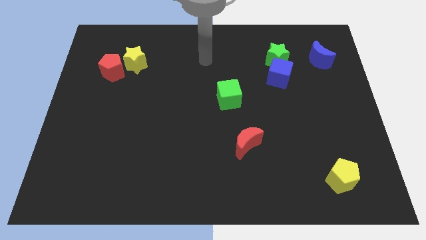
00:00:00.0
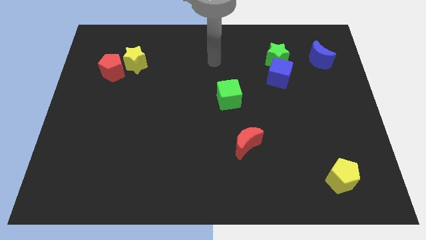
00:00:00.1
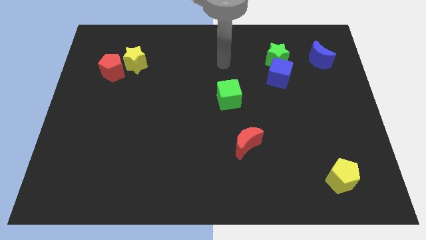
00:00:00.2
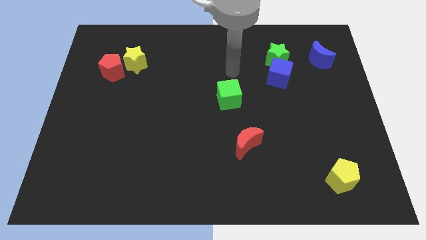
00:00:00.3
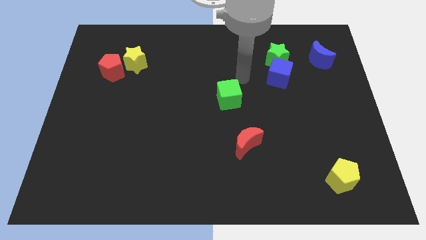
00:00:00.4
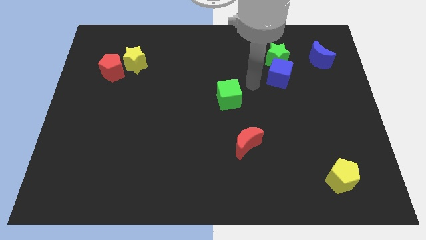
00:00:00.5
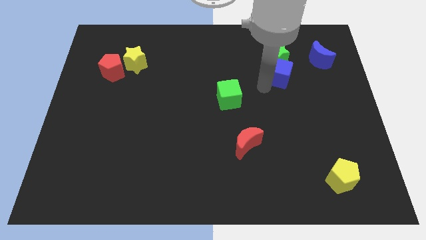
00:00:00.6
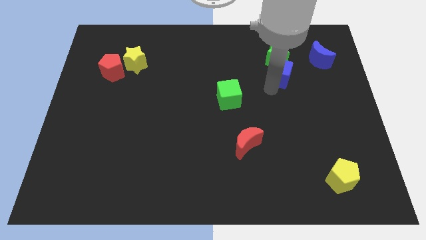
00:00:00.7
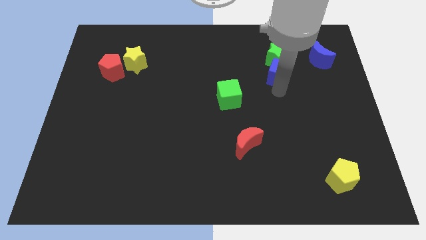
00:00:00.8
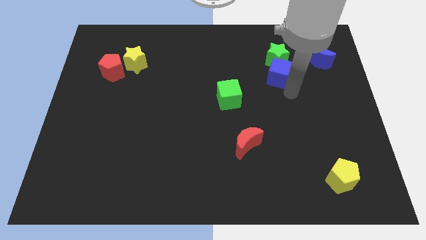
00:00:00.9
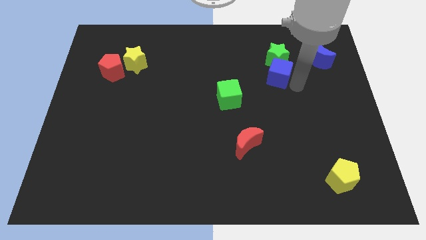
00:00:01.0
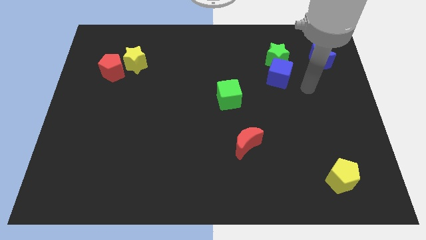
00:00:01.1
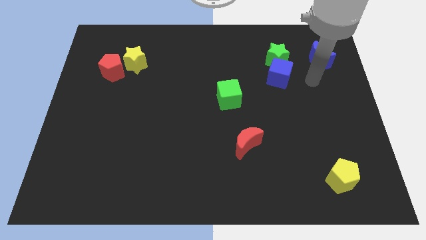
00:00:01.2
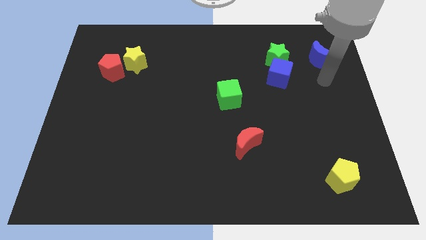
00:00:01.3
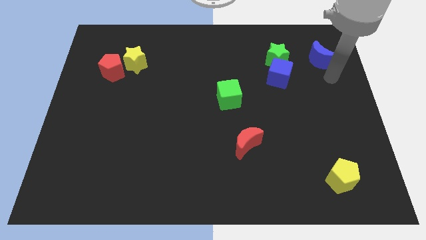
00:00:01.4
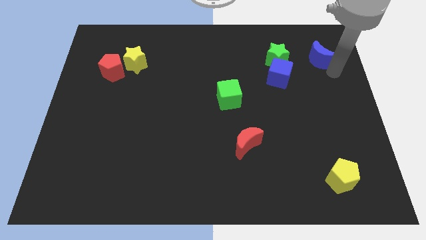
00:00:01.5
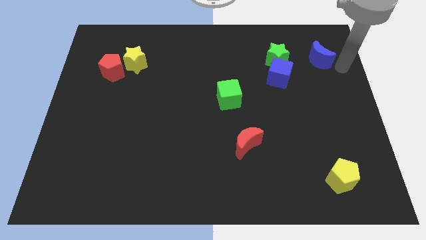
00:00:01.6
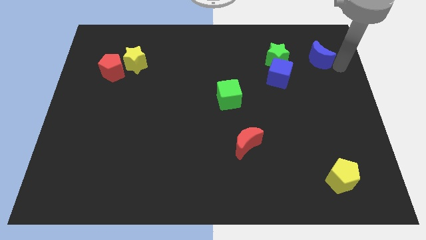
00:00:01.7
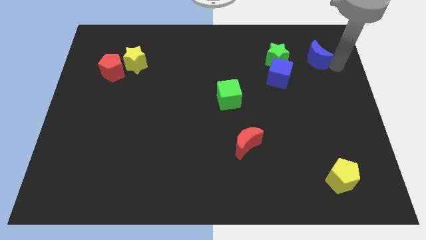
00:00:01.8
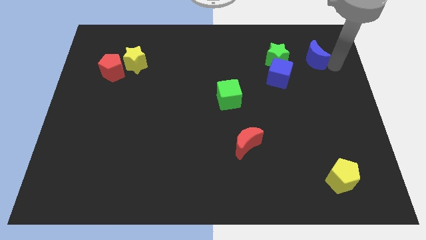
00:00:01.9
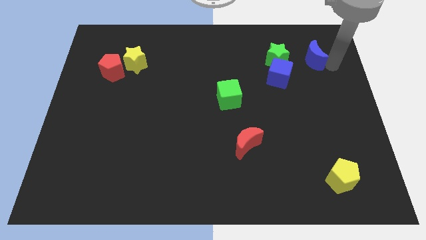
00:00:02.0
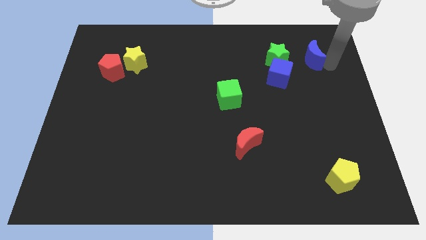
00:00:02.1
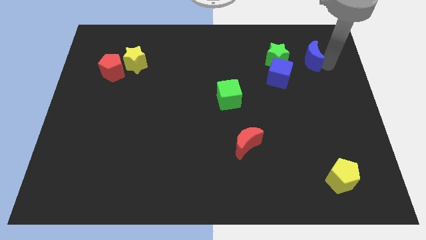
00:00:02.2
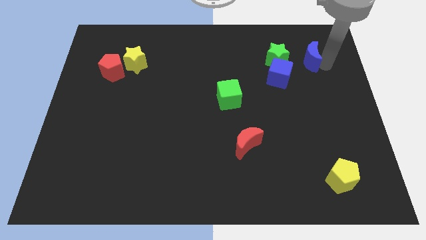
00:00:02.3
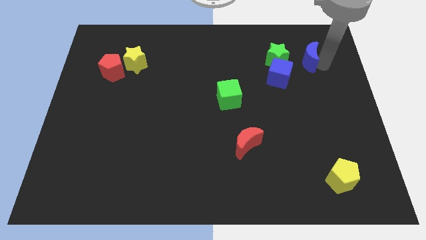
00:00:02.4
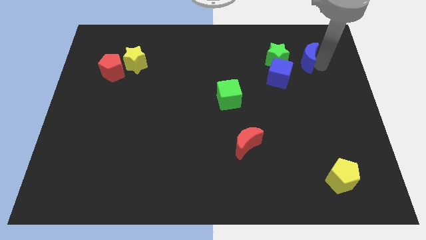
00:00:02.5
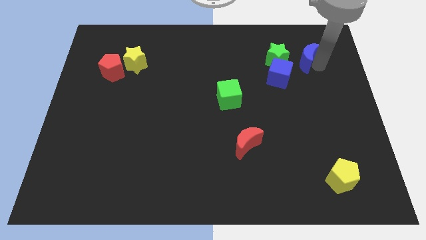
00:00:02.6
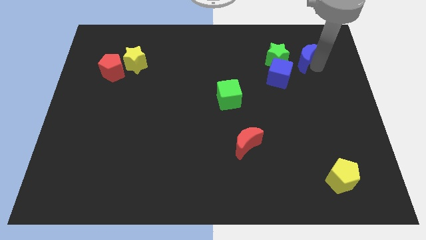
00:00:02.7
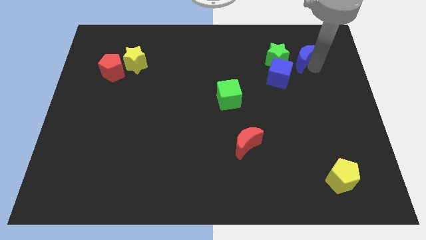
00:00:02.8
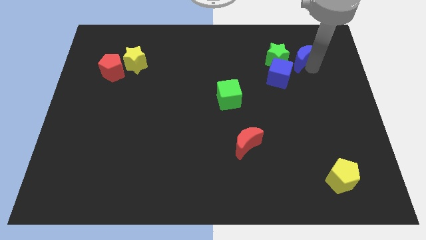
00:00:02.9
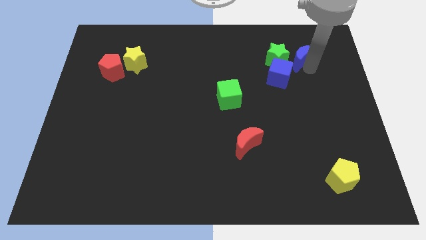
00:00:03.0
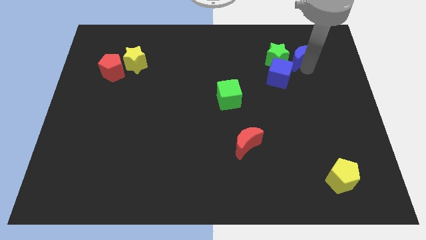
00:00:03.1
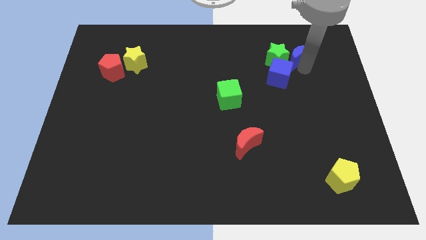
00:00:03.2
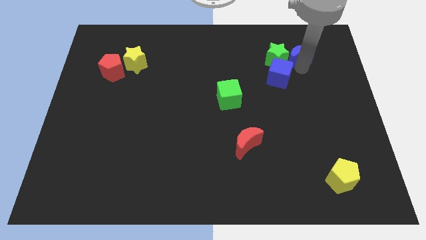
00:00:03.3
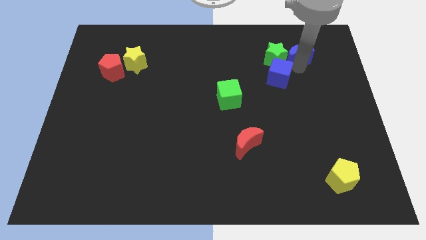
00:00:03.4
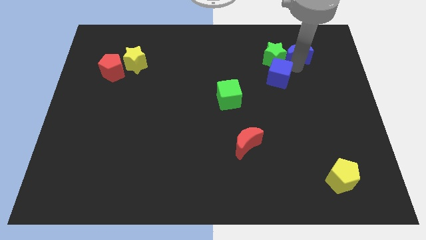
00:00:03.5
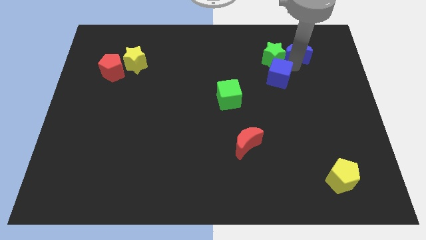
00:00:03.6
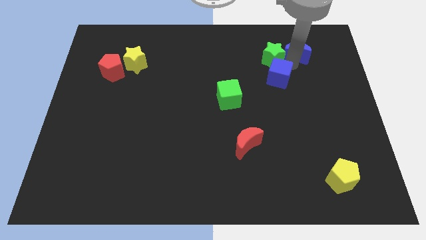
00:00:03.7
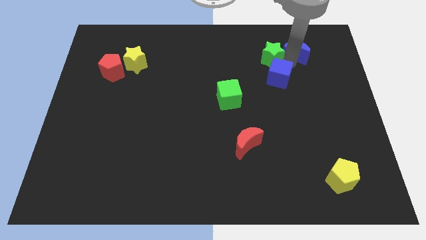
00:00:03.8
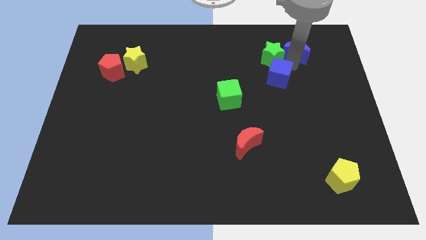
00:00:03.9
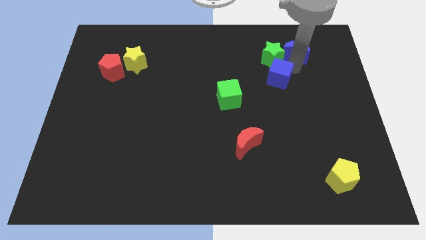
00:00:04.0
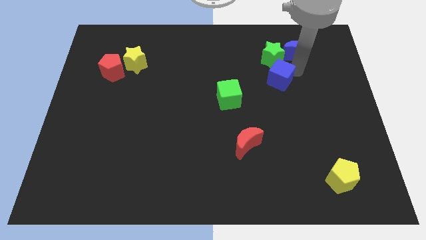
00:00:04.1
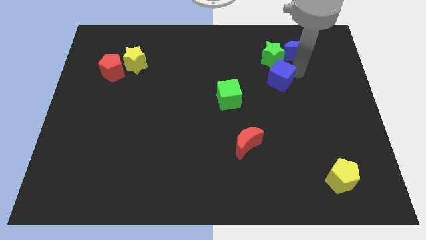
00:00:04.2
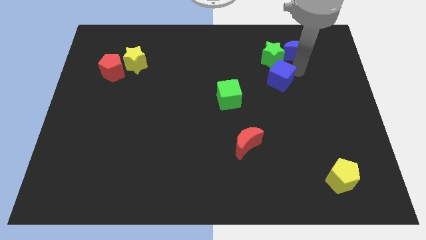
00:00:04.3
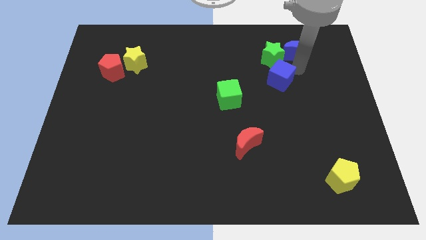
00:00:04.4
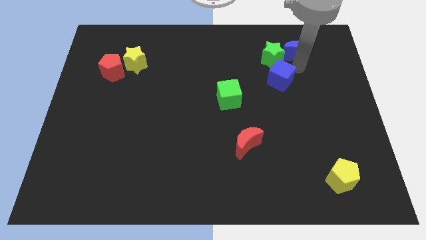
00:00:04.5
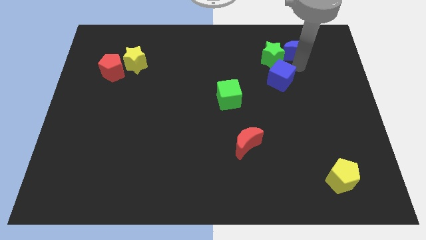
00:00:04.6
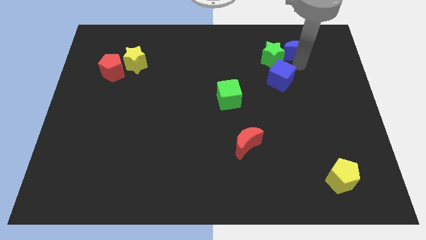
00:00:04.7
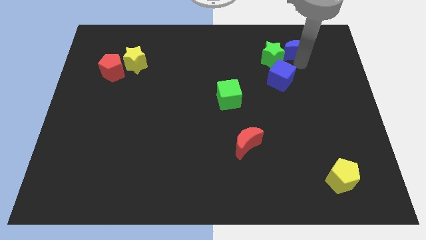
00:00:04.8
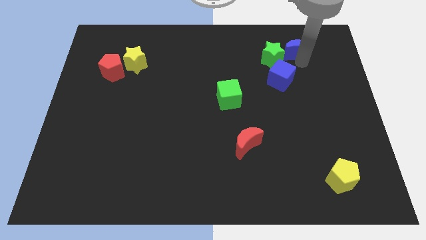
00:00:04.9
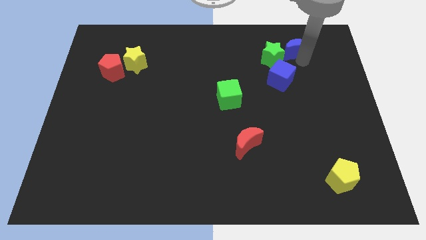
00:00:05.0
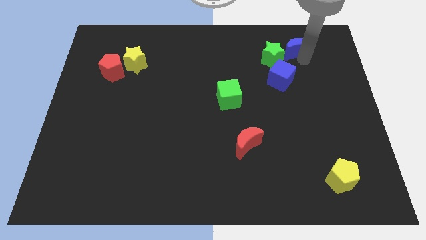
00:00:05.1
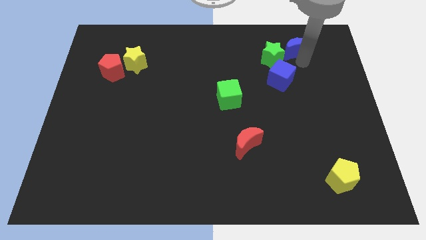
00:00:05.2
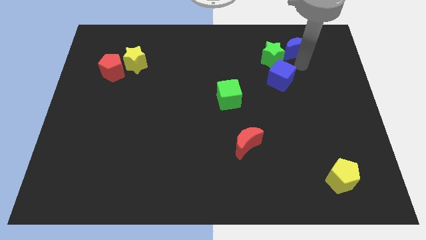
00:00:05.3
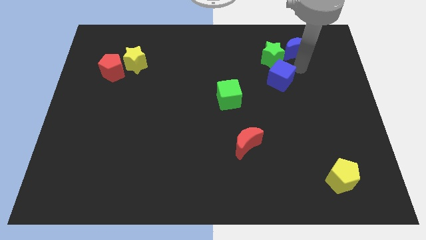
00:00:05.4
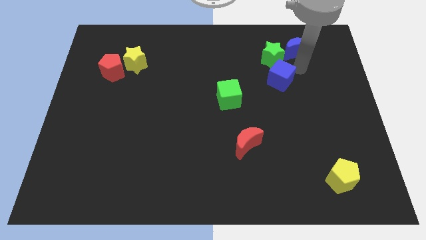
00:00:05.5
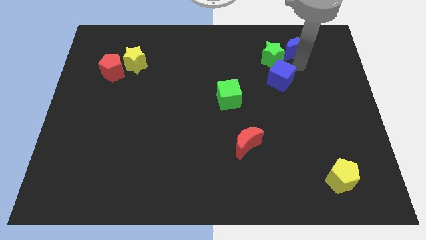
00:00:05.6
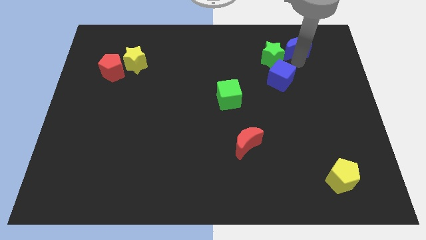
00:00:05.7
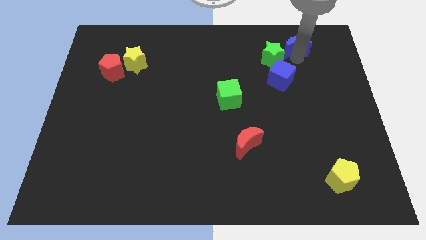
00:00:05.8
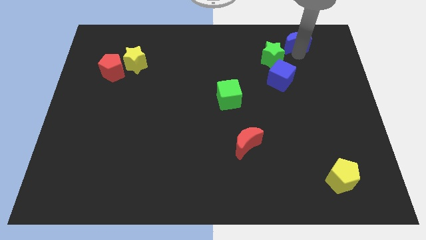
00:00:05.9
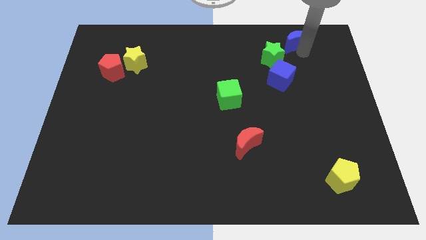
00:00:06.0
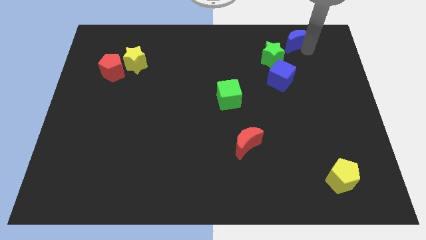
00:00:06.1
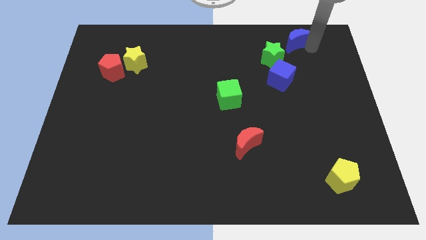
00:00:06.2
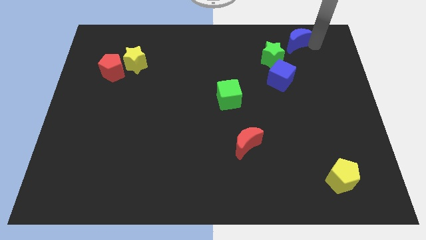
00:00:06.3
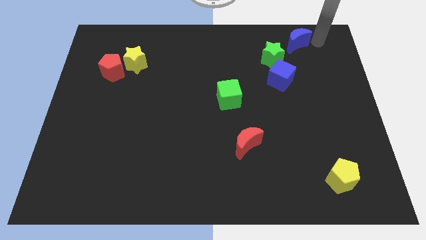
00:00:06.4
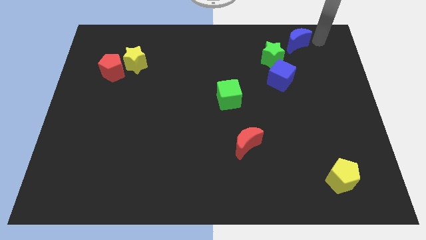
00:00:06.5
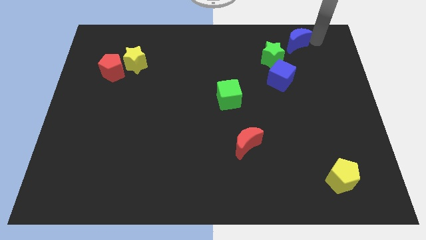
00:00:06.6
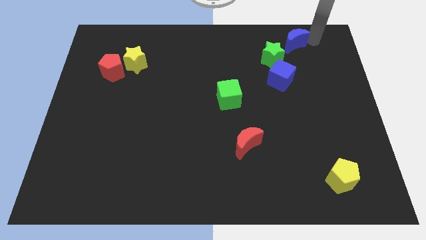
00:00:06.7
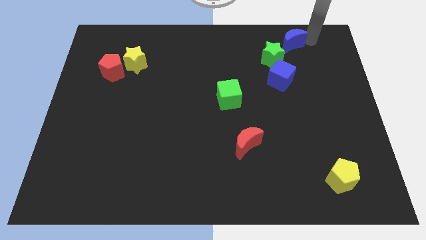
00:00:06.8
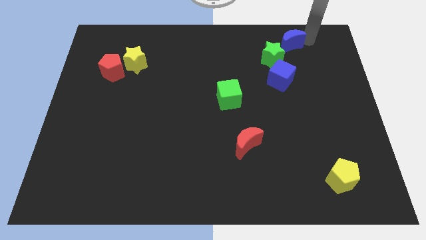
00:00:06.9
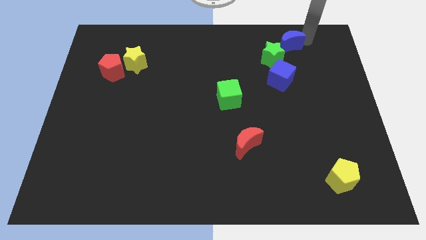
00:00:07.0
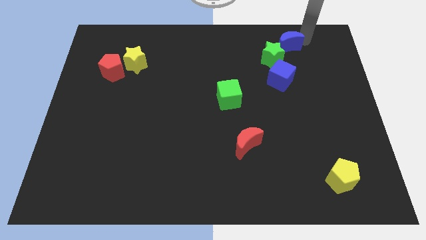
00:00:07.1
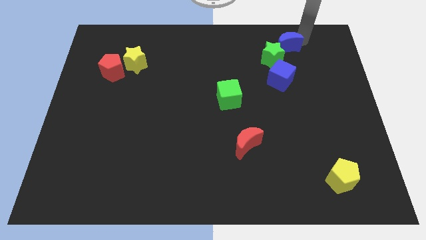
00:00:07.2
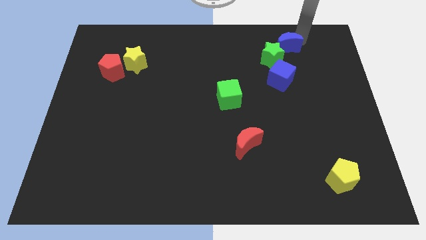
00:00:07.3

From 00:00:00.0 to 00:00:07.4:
slide the blue moon a bit left

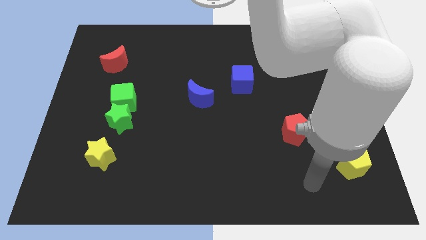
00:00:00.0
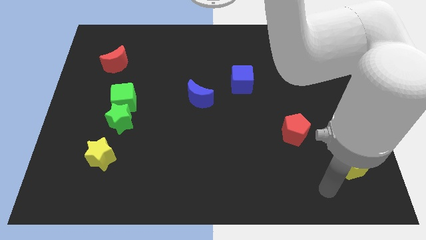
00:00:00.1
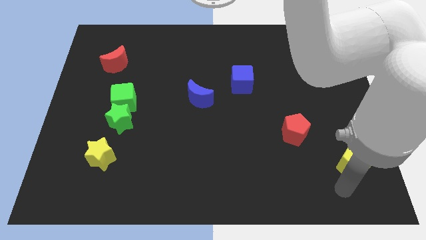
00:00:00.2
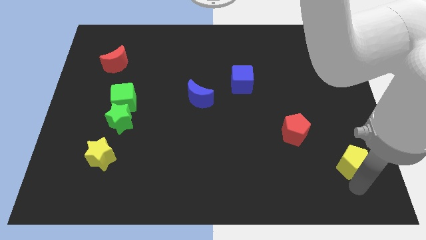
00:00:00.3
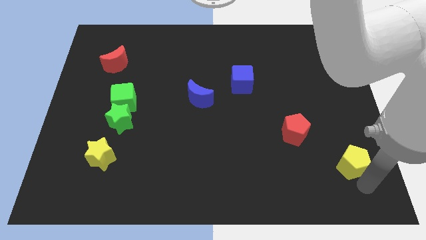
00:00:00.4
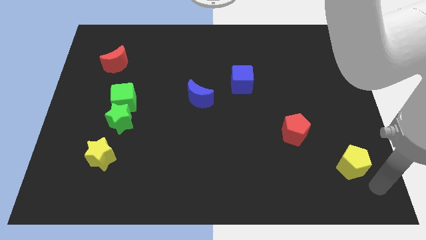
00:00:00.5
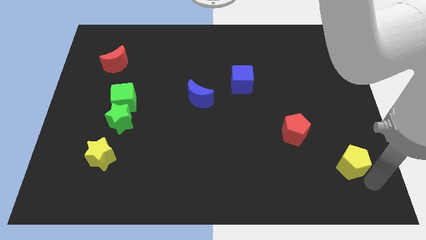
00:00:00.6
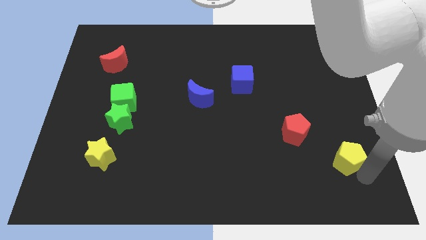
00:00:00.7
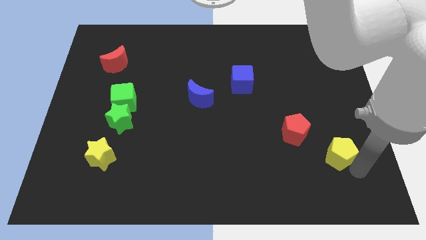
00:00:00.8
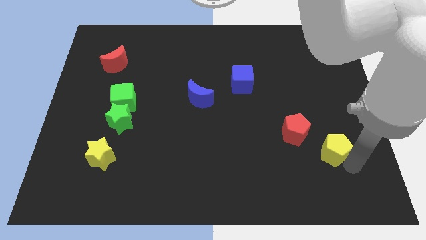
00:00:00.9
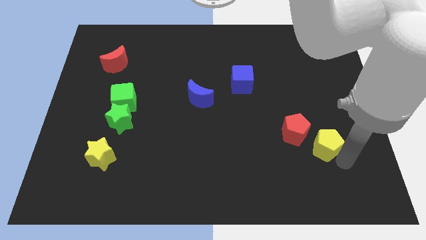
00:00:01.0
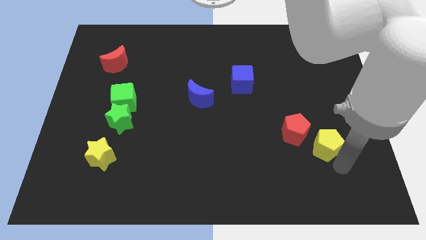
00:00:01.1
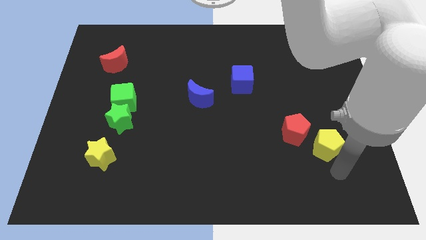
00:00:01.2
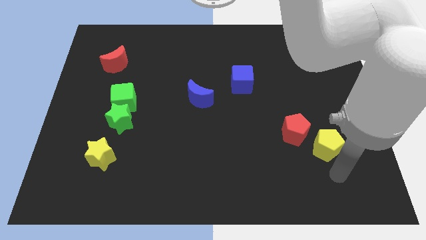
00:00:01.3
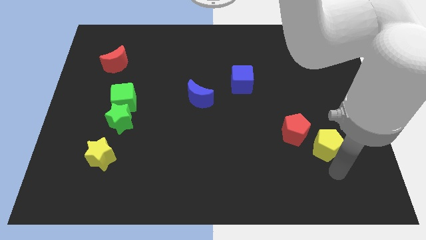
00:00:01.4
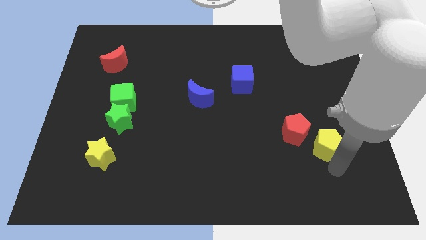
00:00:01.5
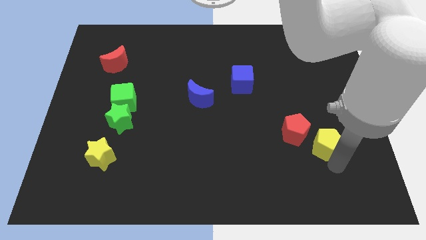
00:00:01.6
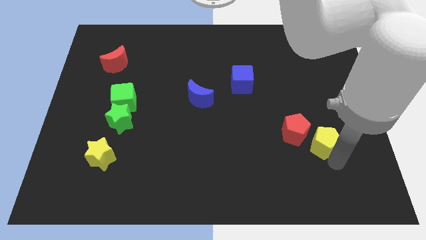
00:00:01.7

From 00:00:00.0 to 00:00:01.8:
move the yellow pentagon a little up and to the left diagonally
